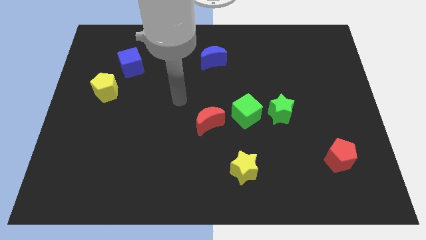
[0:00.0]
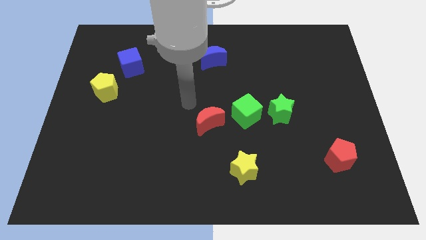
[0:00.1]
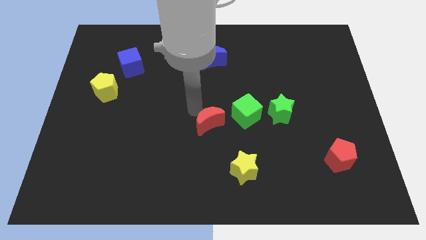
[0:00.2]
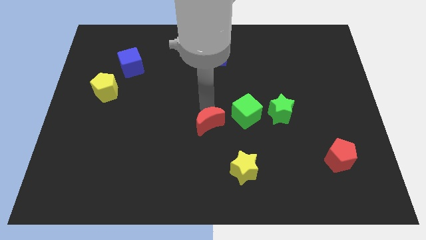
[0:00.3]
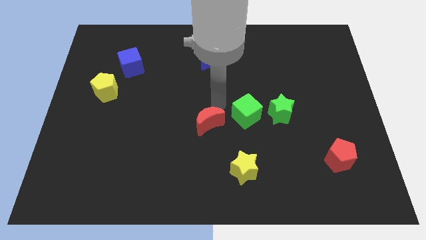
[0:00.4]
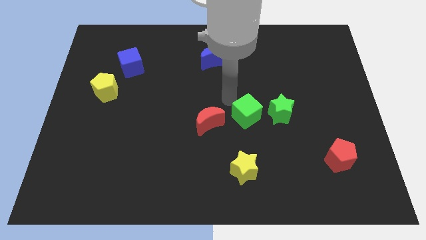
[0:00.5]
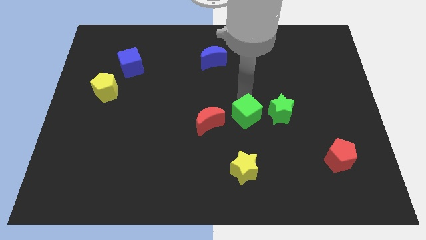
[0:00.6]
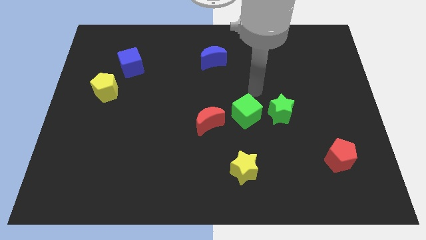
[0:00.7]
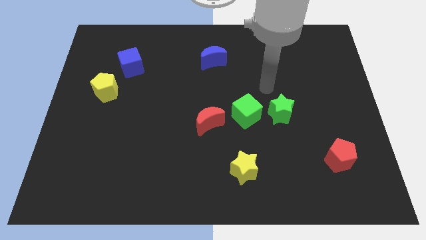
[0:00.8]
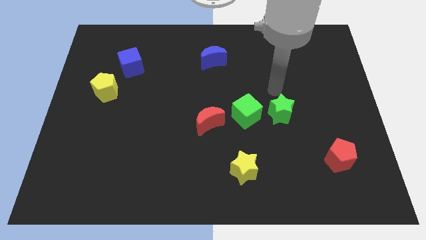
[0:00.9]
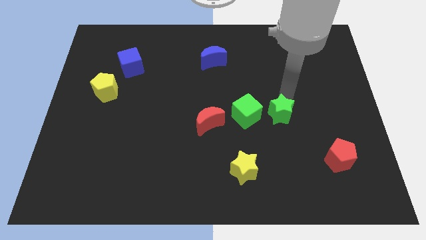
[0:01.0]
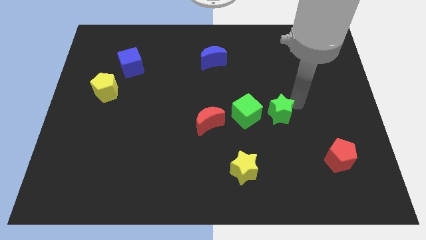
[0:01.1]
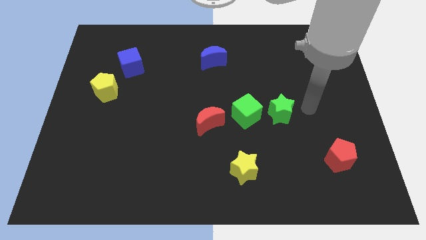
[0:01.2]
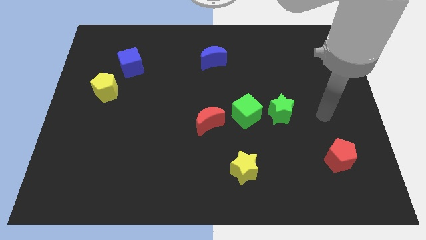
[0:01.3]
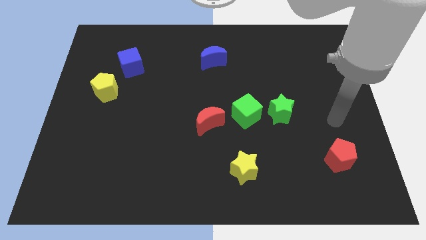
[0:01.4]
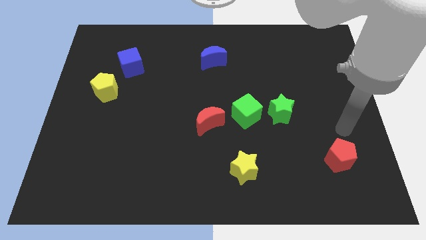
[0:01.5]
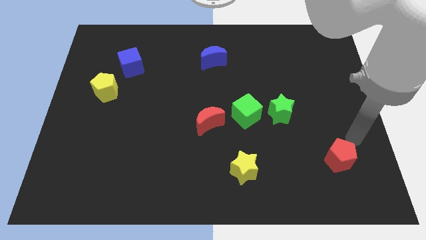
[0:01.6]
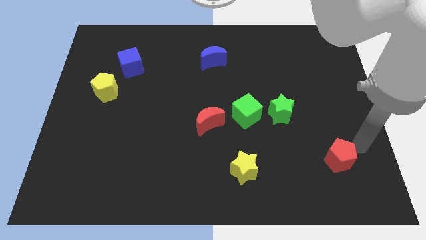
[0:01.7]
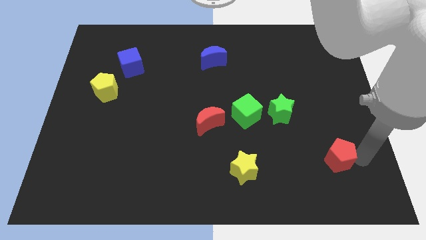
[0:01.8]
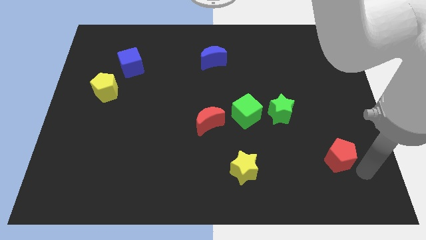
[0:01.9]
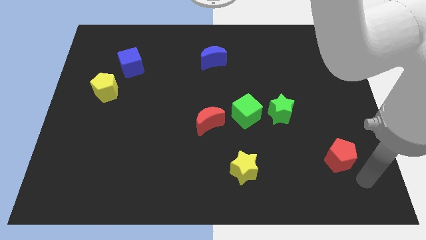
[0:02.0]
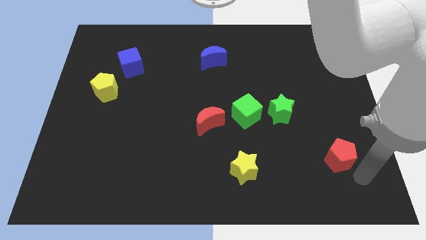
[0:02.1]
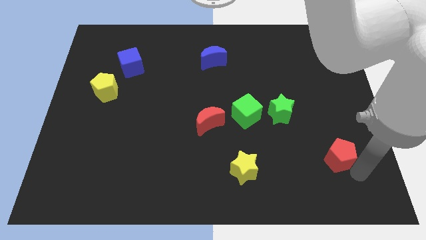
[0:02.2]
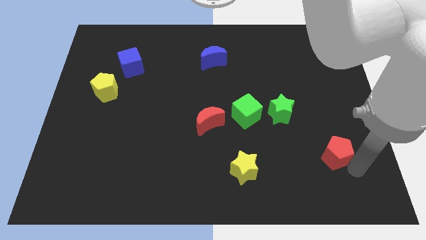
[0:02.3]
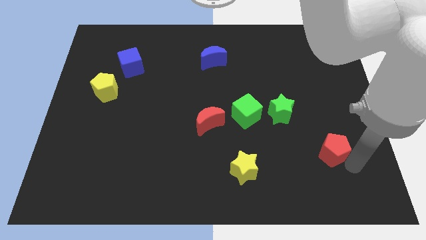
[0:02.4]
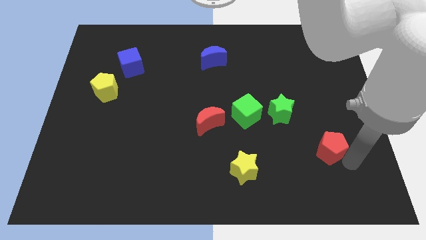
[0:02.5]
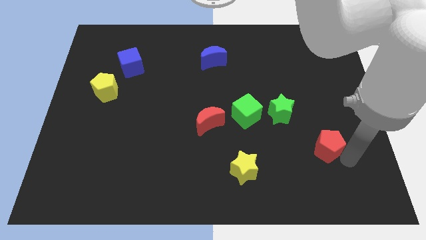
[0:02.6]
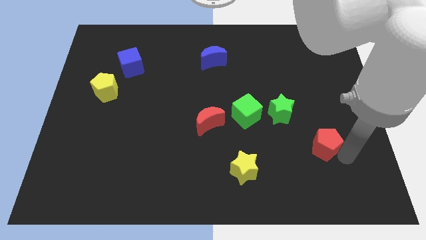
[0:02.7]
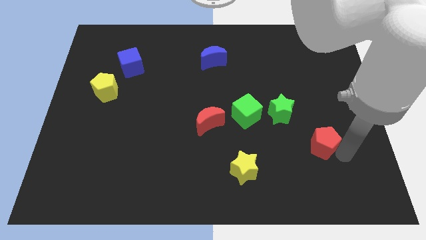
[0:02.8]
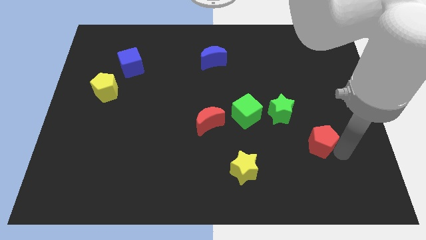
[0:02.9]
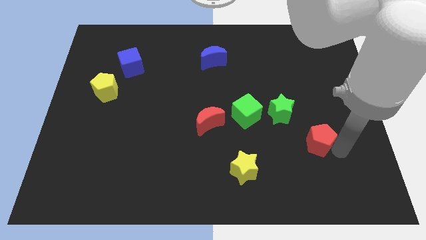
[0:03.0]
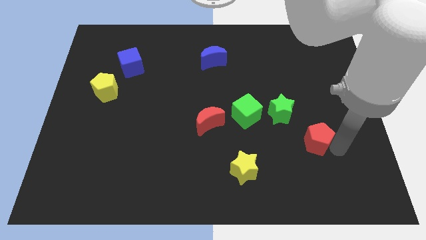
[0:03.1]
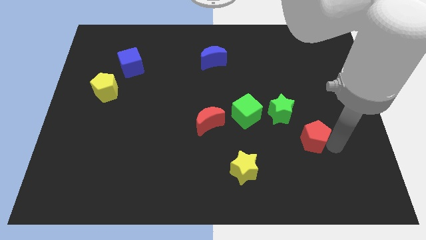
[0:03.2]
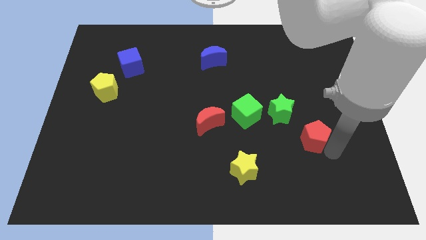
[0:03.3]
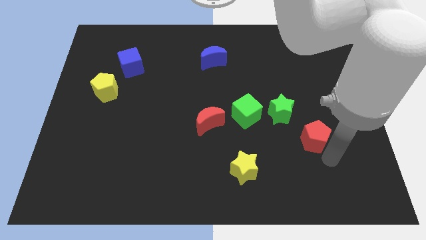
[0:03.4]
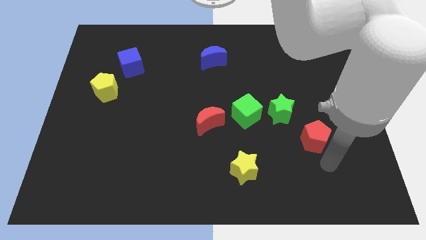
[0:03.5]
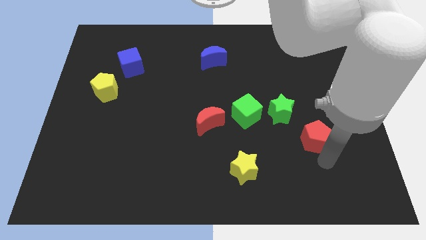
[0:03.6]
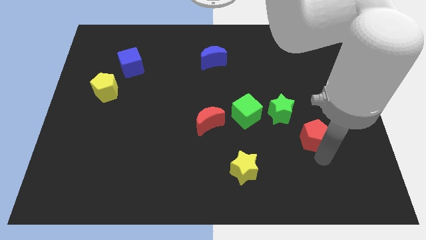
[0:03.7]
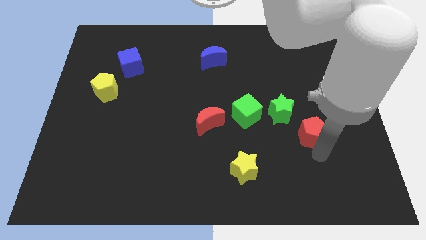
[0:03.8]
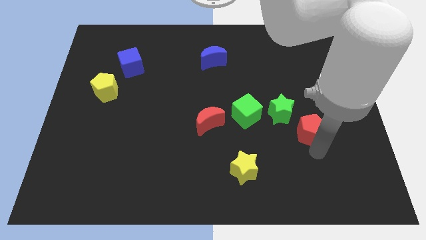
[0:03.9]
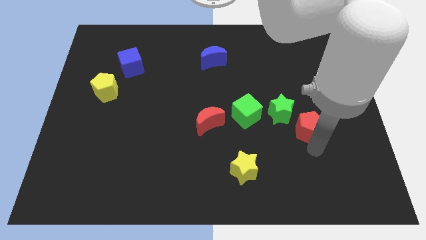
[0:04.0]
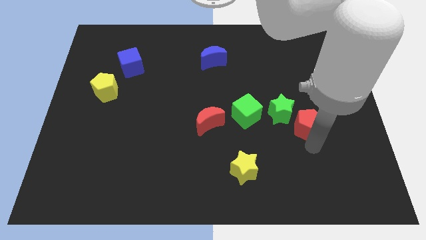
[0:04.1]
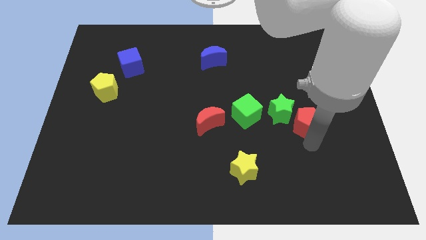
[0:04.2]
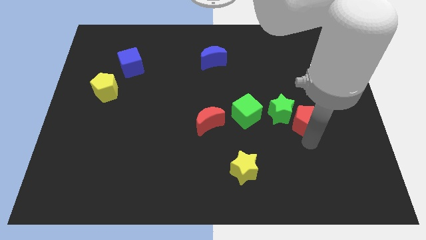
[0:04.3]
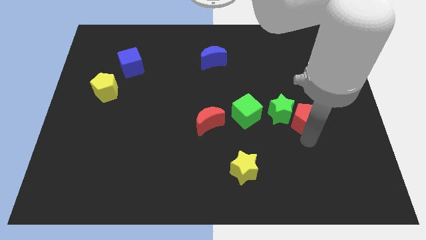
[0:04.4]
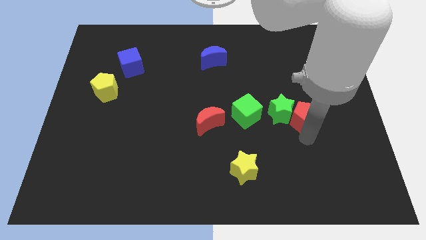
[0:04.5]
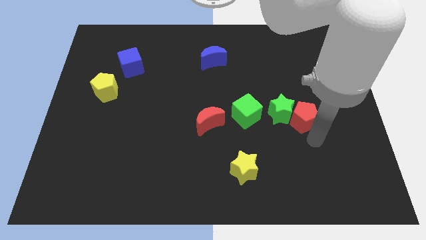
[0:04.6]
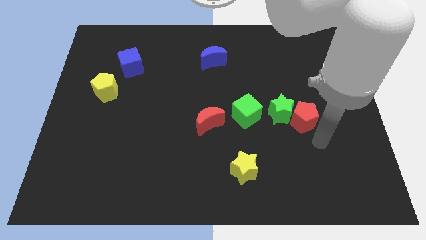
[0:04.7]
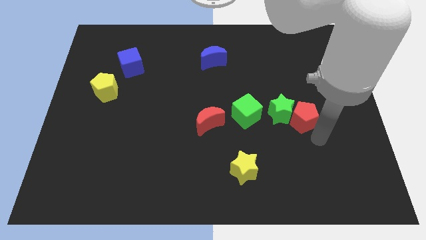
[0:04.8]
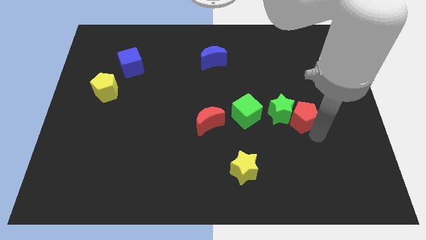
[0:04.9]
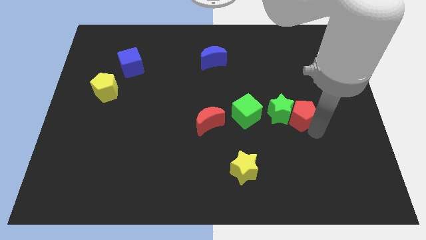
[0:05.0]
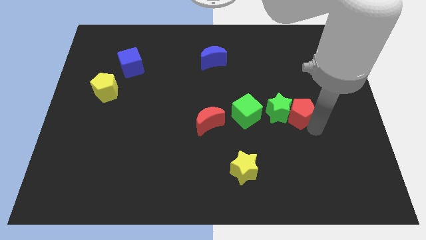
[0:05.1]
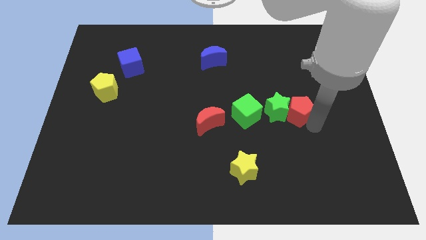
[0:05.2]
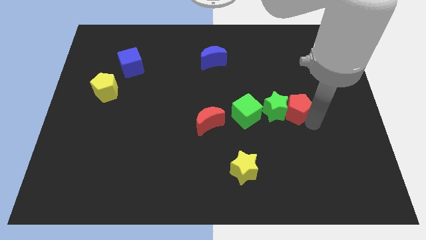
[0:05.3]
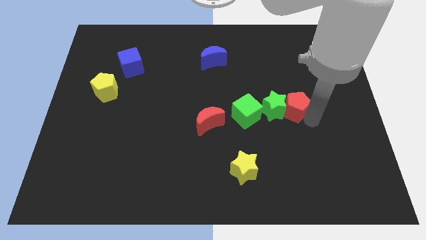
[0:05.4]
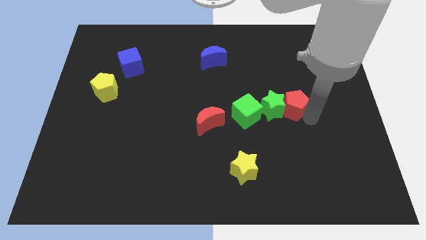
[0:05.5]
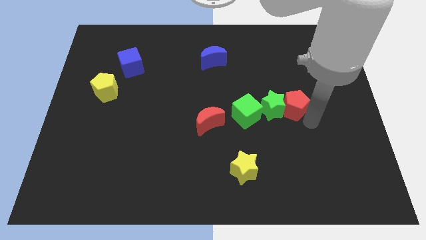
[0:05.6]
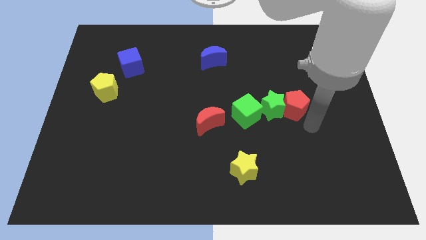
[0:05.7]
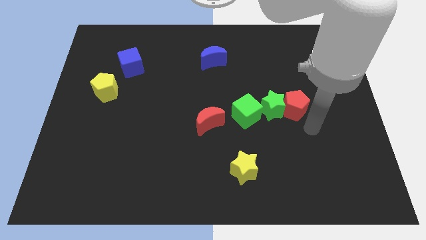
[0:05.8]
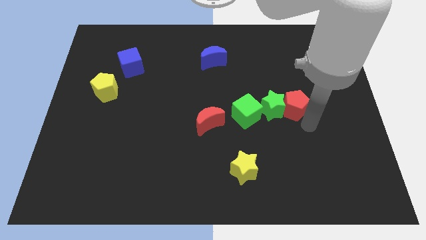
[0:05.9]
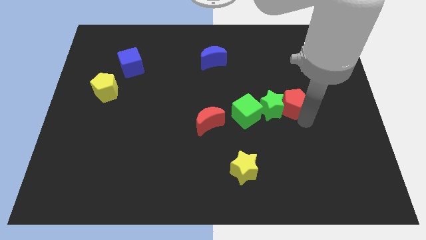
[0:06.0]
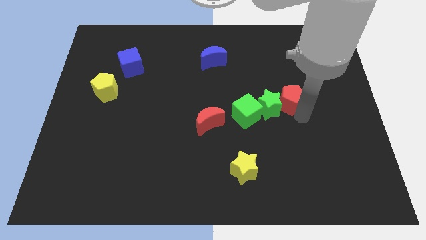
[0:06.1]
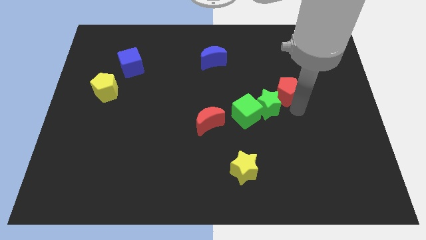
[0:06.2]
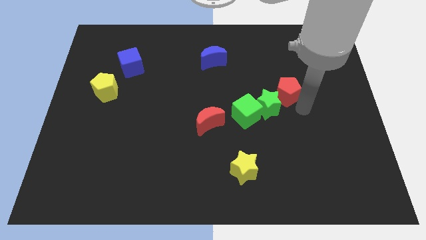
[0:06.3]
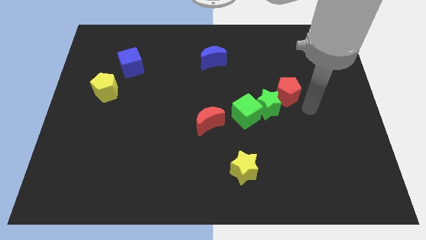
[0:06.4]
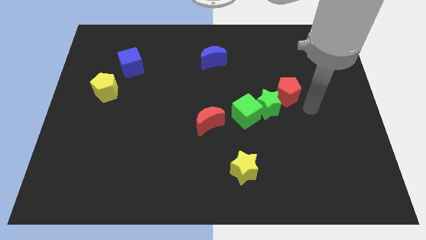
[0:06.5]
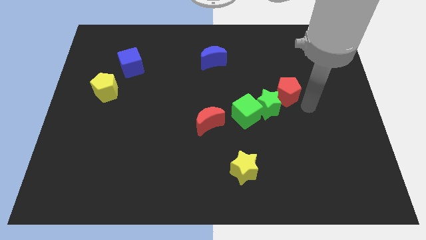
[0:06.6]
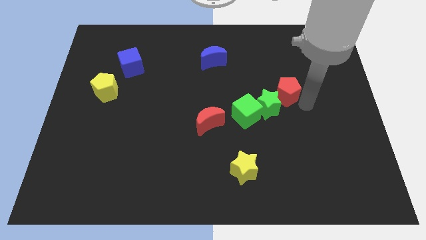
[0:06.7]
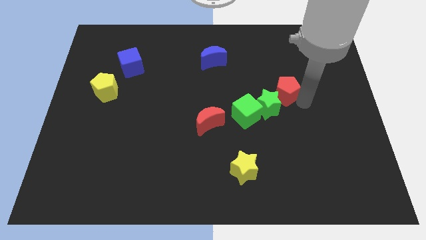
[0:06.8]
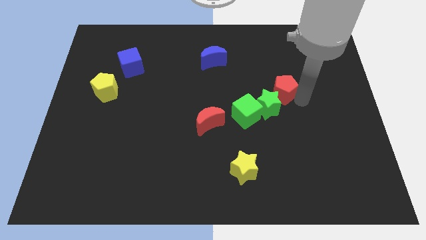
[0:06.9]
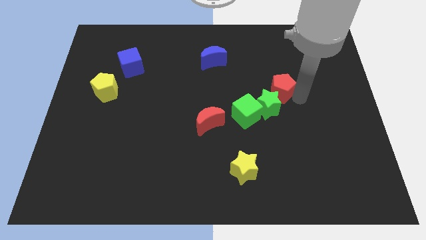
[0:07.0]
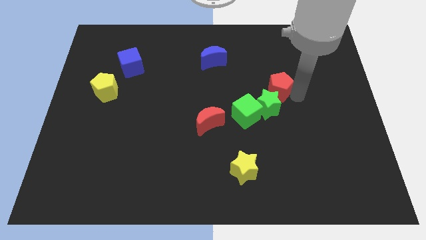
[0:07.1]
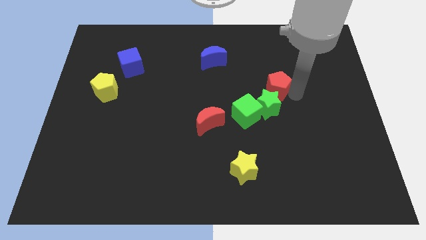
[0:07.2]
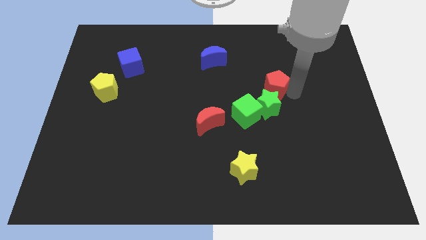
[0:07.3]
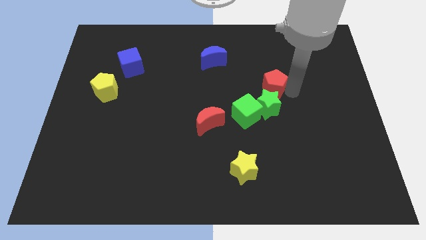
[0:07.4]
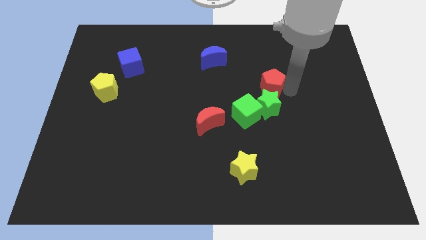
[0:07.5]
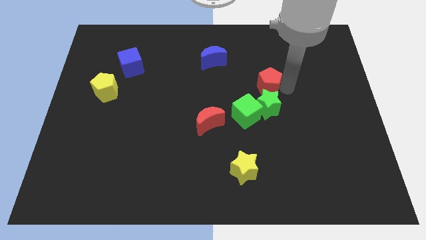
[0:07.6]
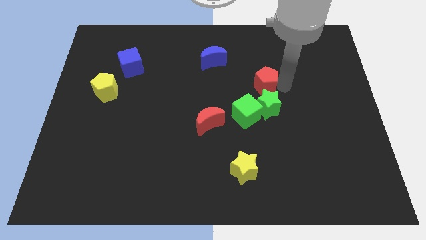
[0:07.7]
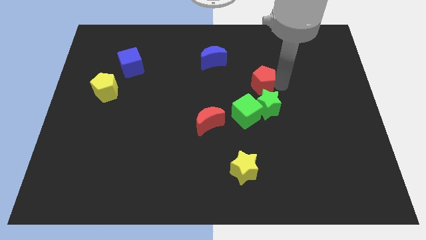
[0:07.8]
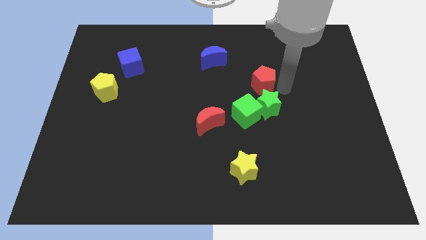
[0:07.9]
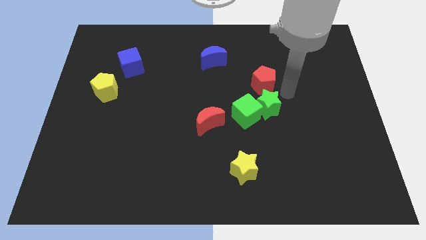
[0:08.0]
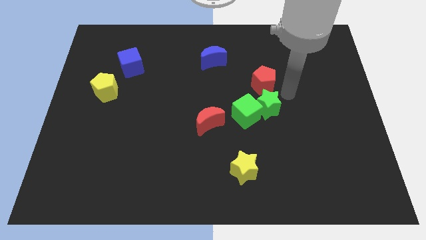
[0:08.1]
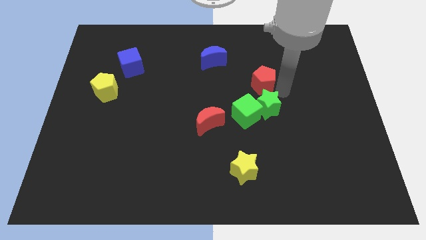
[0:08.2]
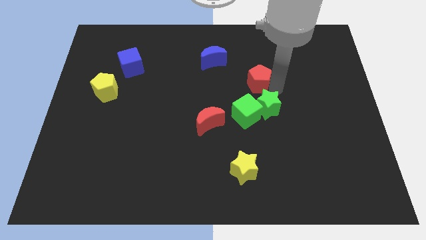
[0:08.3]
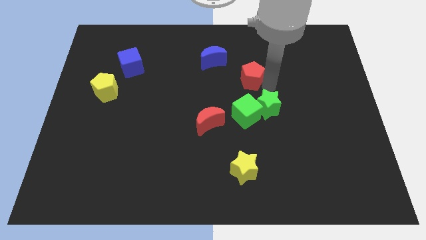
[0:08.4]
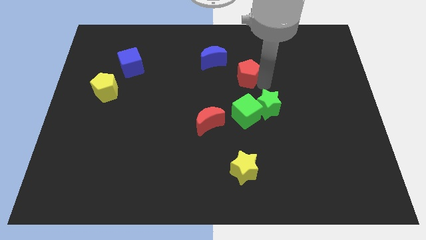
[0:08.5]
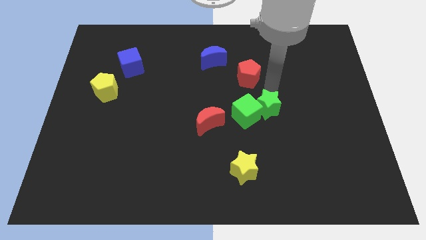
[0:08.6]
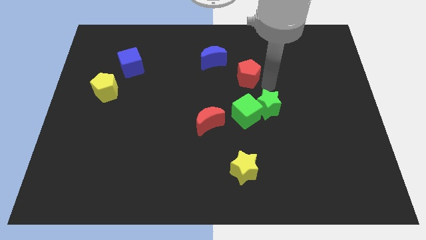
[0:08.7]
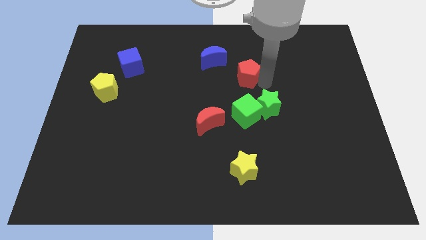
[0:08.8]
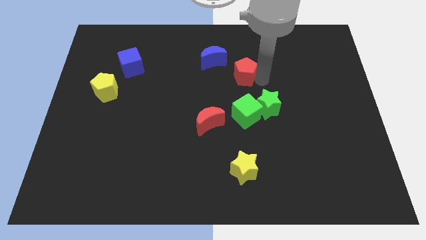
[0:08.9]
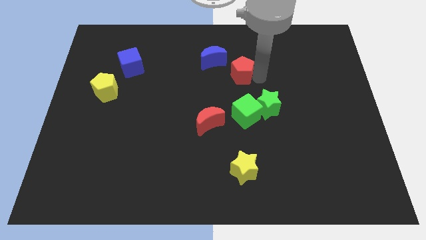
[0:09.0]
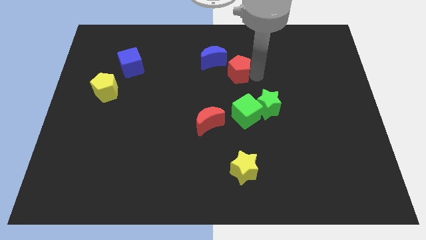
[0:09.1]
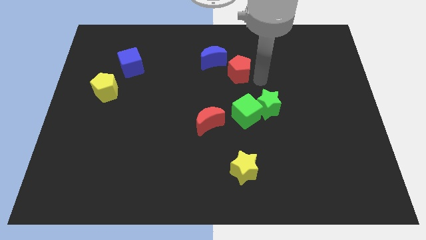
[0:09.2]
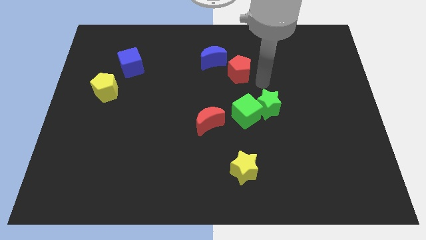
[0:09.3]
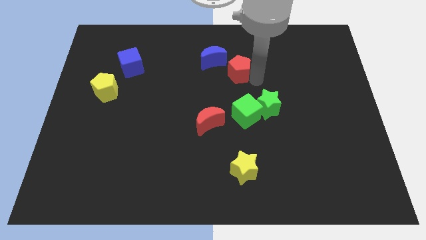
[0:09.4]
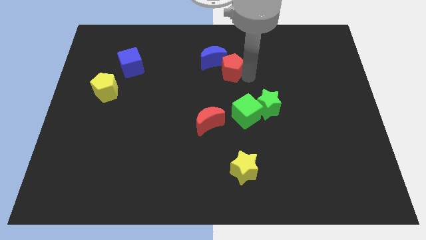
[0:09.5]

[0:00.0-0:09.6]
slide the red pentagon close to the blue moon
